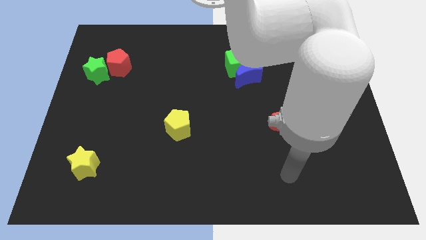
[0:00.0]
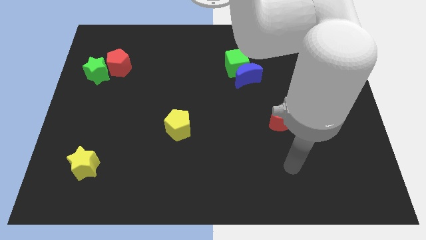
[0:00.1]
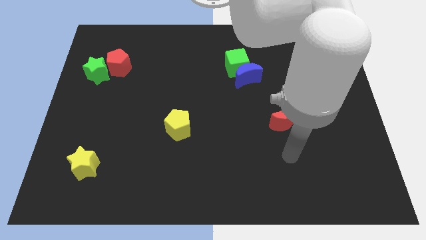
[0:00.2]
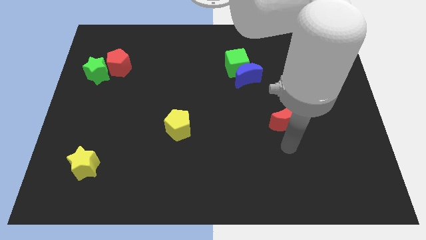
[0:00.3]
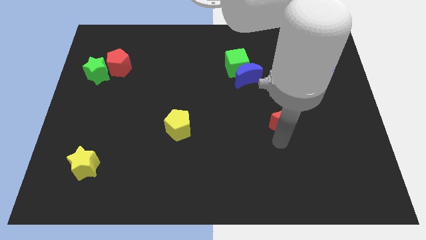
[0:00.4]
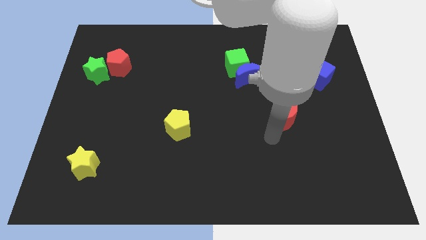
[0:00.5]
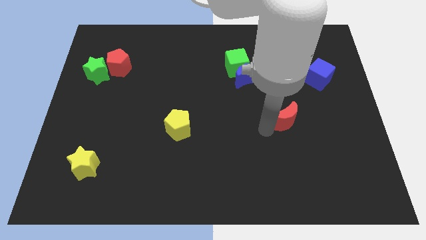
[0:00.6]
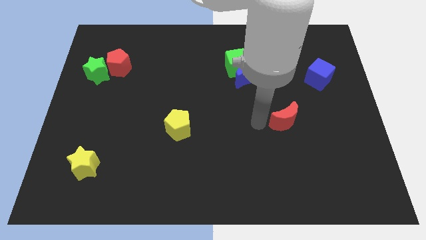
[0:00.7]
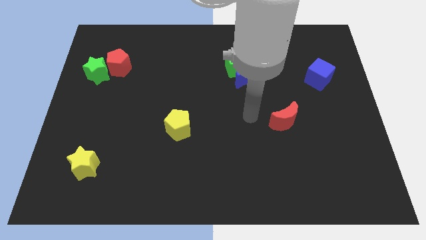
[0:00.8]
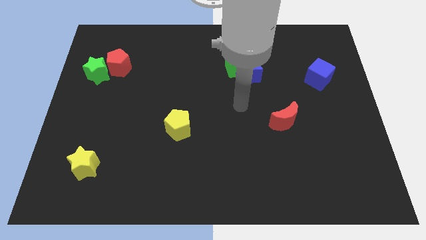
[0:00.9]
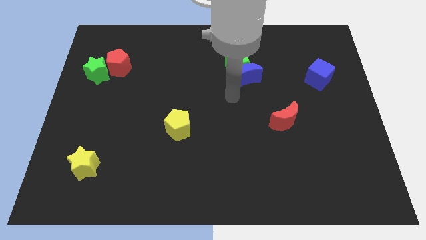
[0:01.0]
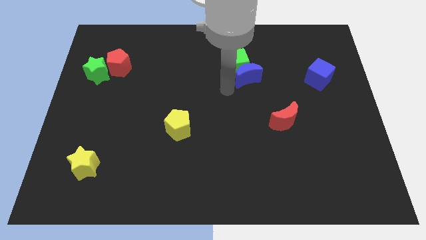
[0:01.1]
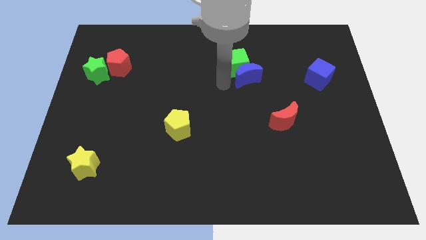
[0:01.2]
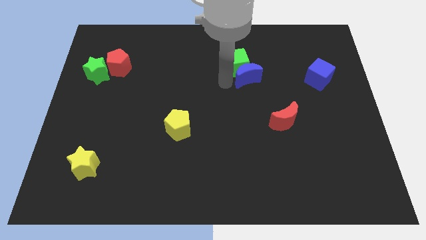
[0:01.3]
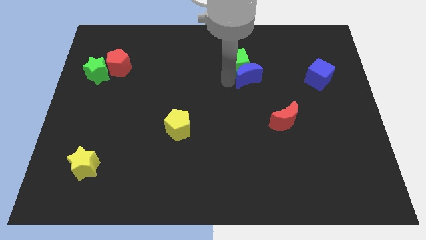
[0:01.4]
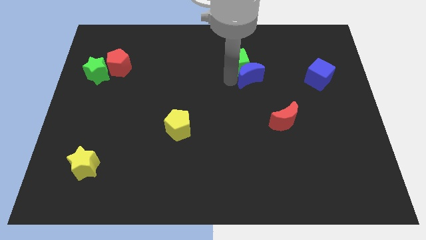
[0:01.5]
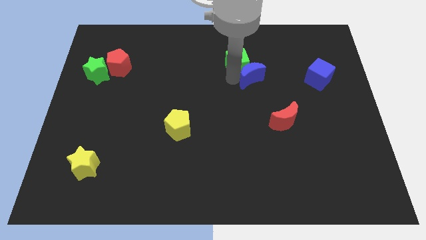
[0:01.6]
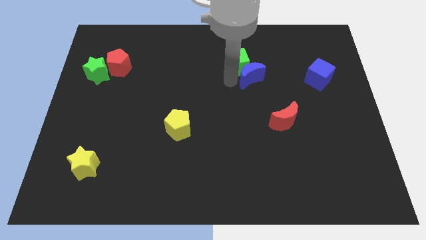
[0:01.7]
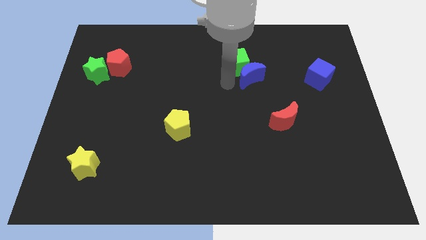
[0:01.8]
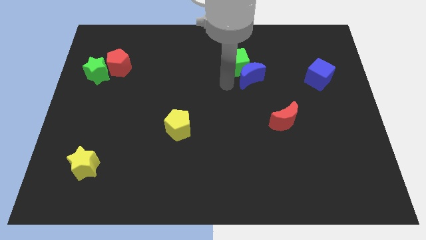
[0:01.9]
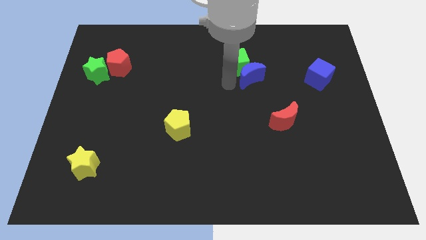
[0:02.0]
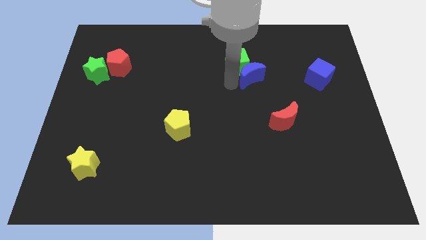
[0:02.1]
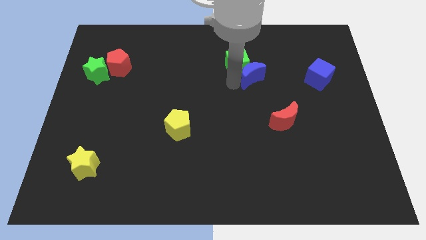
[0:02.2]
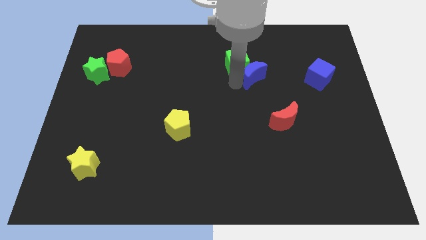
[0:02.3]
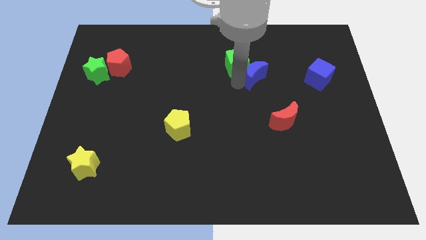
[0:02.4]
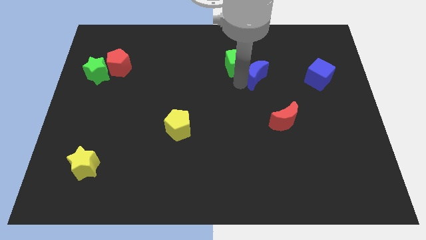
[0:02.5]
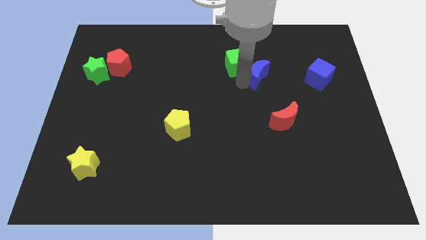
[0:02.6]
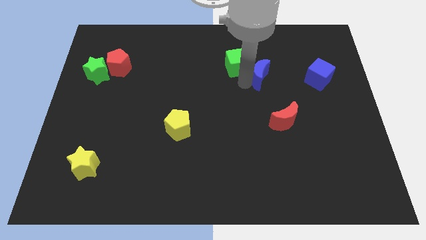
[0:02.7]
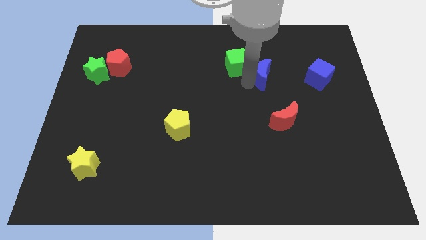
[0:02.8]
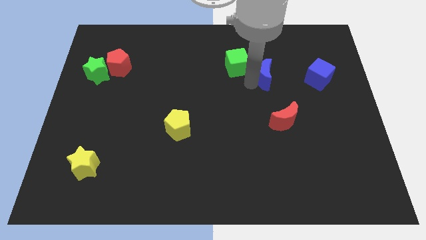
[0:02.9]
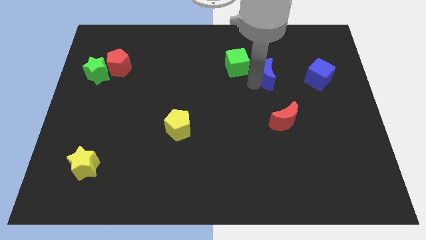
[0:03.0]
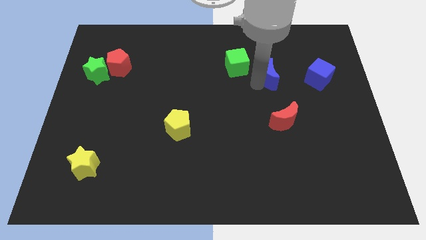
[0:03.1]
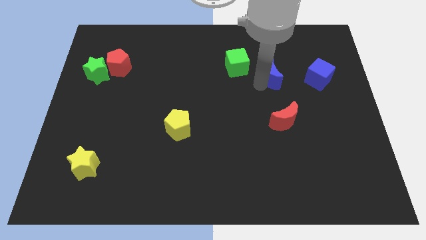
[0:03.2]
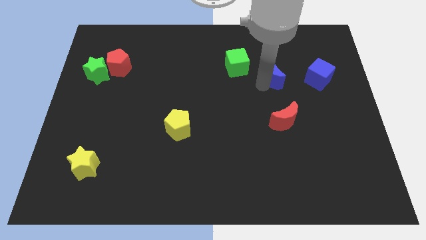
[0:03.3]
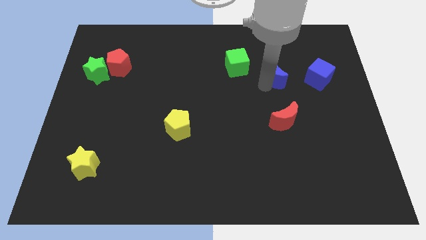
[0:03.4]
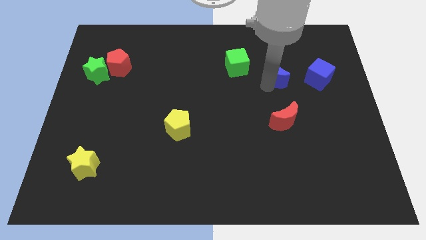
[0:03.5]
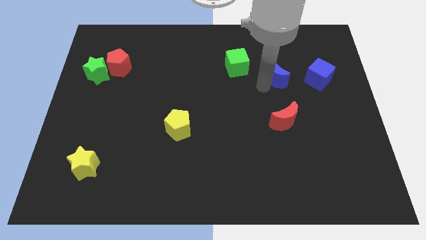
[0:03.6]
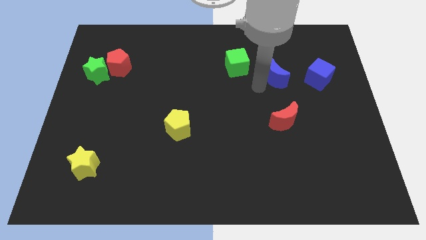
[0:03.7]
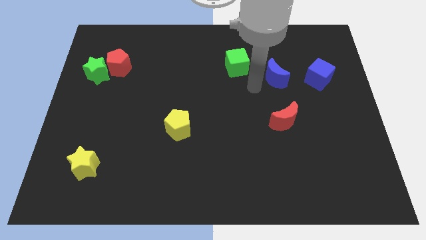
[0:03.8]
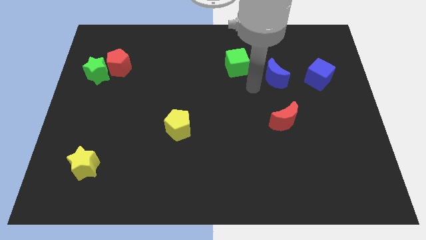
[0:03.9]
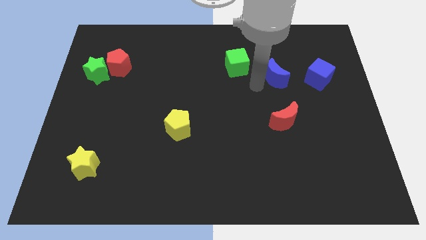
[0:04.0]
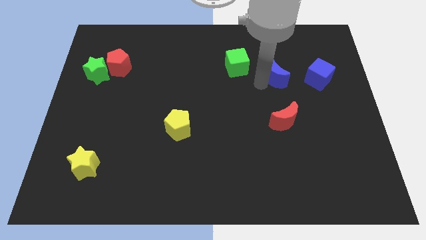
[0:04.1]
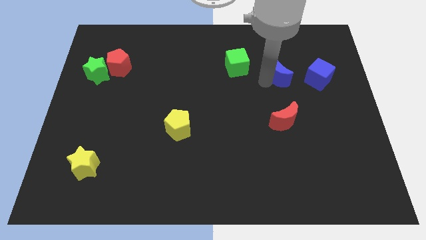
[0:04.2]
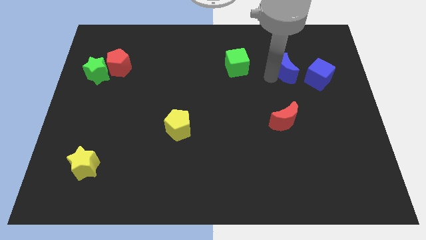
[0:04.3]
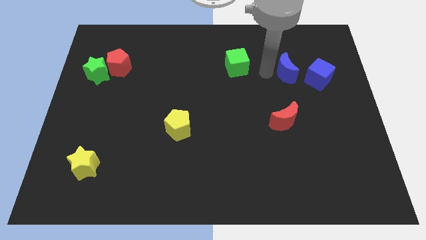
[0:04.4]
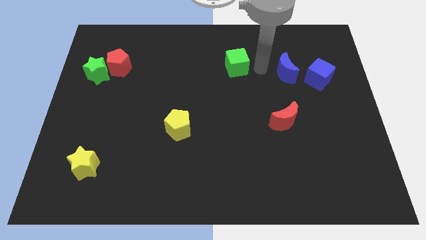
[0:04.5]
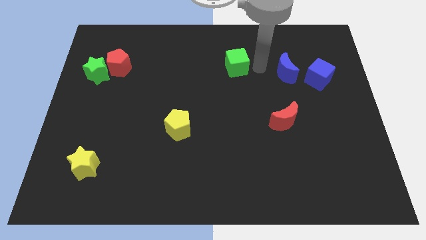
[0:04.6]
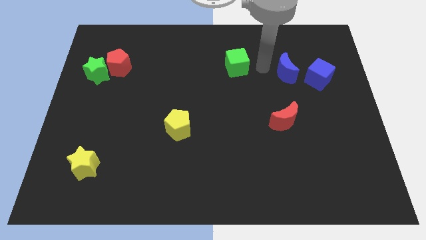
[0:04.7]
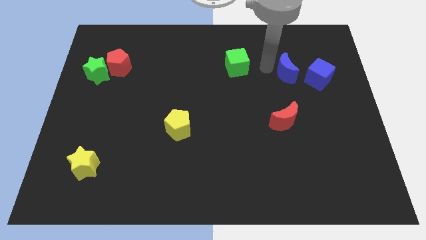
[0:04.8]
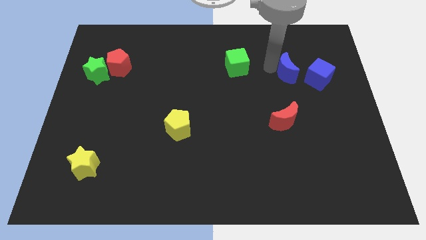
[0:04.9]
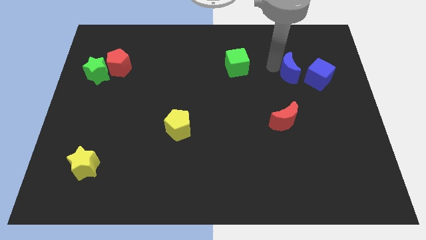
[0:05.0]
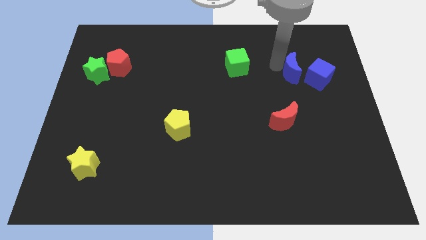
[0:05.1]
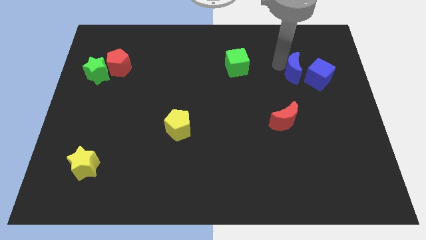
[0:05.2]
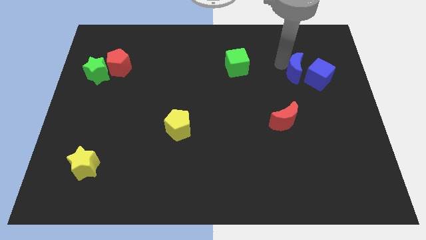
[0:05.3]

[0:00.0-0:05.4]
slide the blue moon to the blue cube

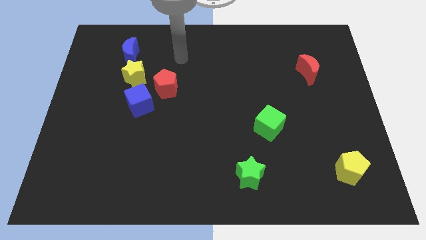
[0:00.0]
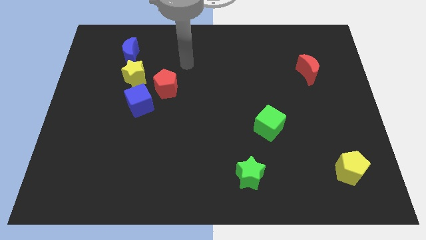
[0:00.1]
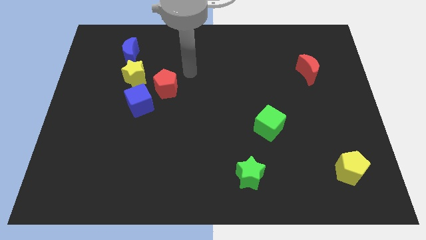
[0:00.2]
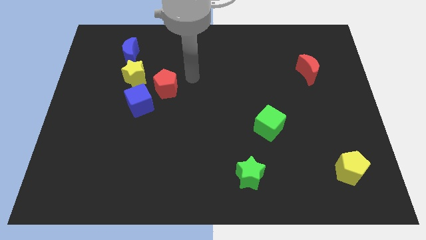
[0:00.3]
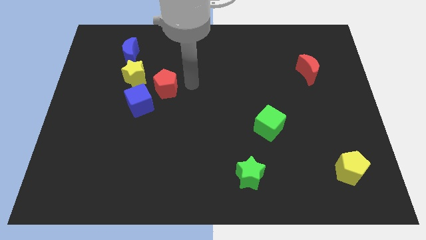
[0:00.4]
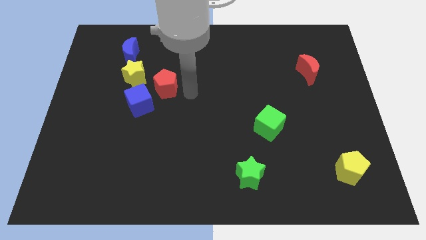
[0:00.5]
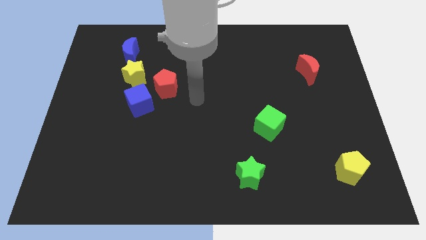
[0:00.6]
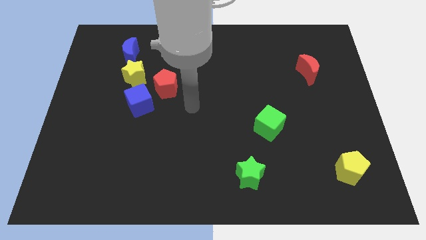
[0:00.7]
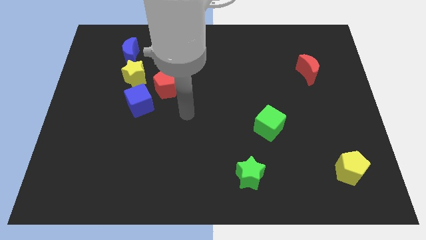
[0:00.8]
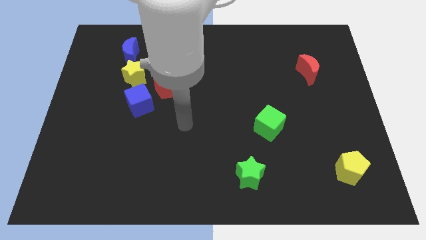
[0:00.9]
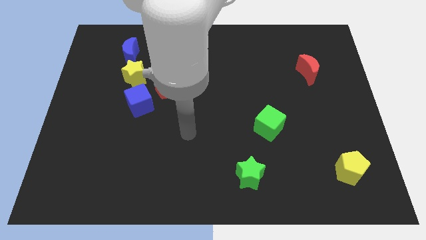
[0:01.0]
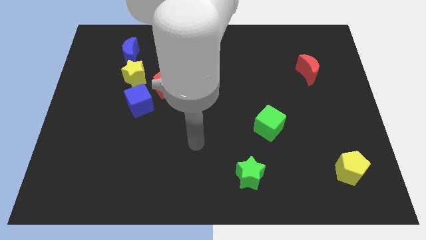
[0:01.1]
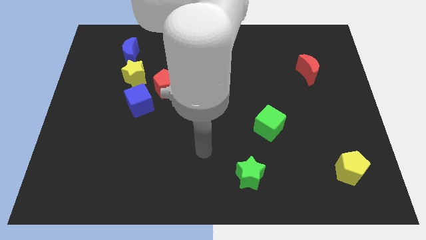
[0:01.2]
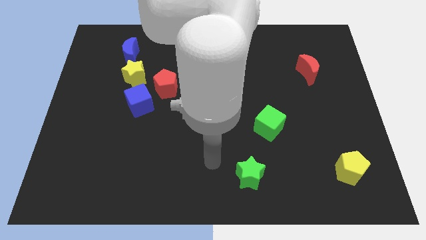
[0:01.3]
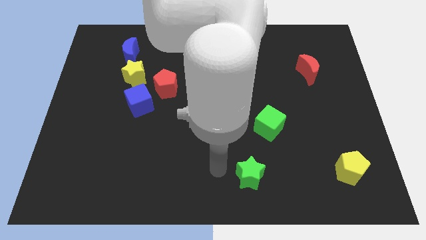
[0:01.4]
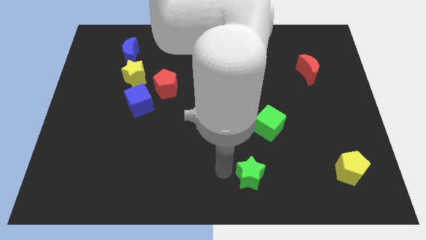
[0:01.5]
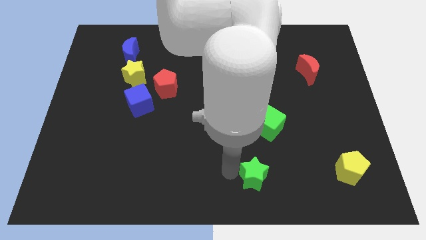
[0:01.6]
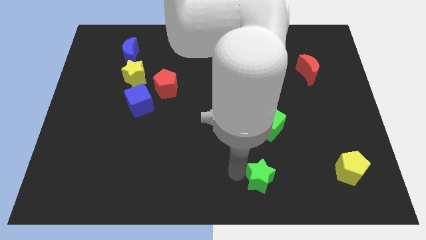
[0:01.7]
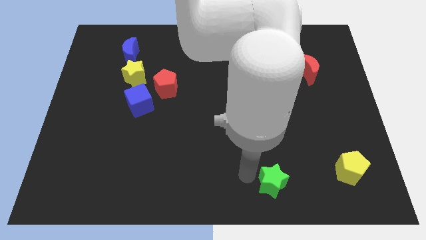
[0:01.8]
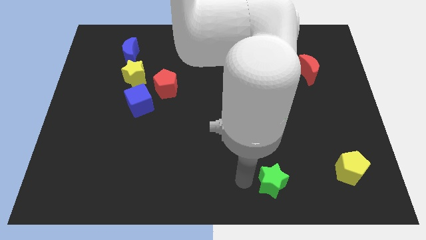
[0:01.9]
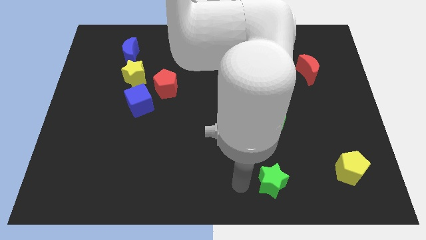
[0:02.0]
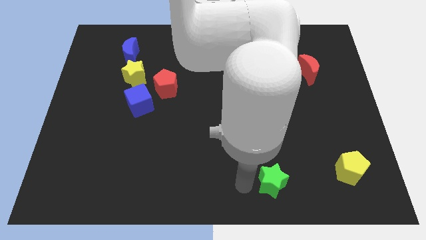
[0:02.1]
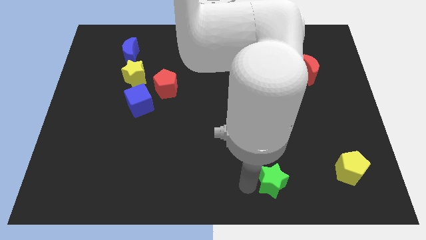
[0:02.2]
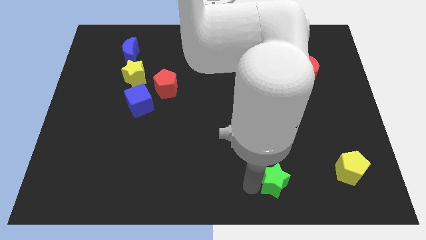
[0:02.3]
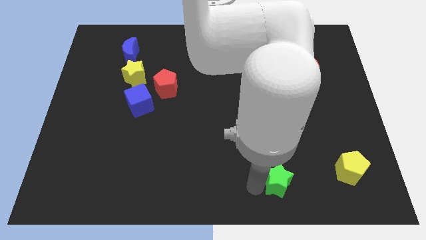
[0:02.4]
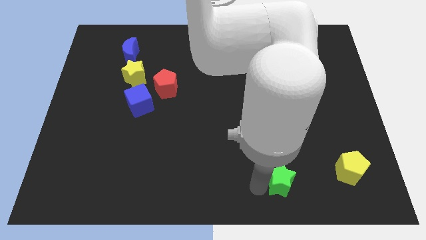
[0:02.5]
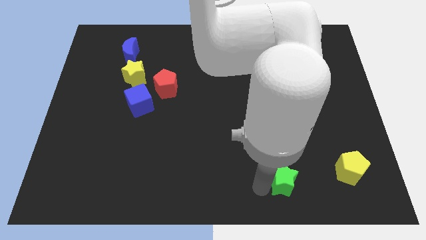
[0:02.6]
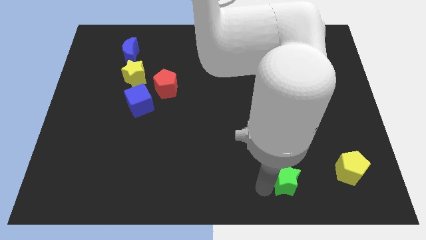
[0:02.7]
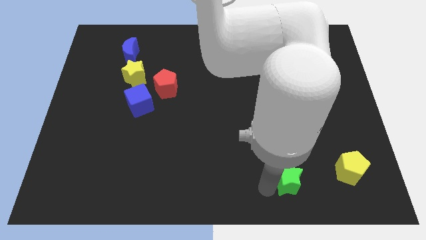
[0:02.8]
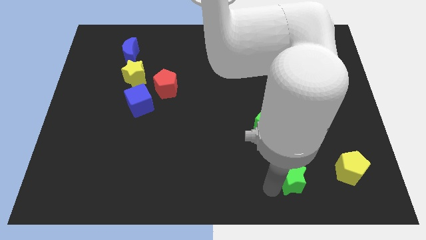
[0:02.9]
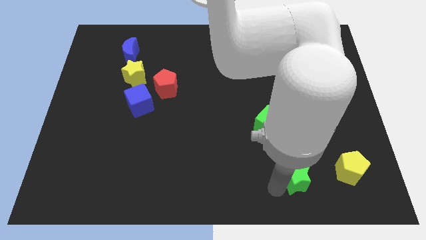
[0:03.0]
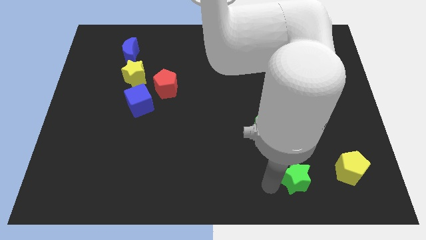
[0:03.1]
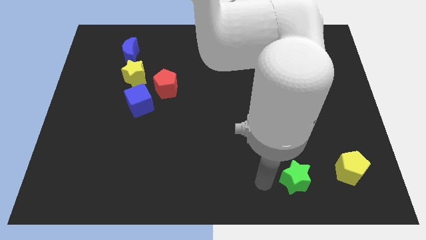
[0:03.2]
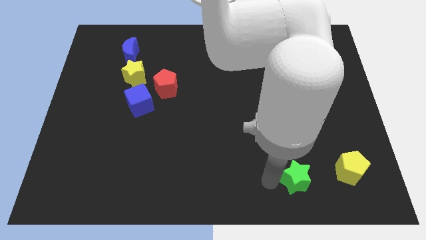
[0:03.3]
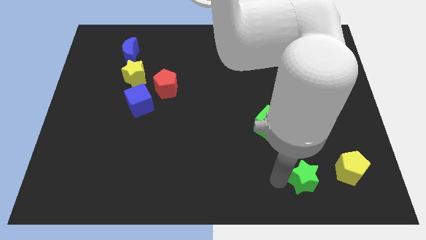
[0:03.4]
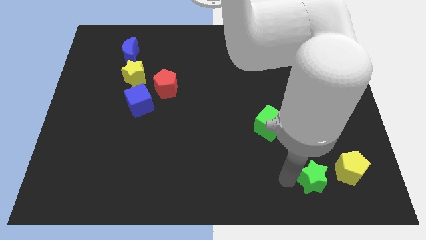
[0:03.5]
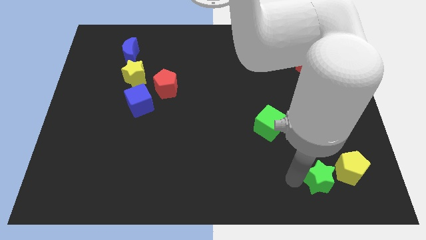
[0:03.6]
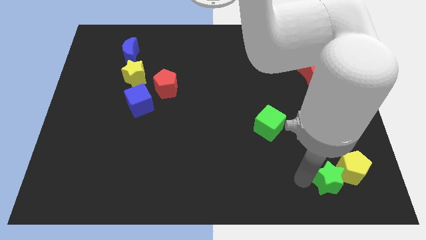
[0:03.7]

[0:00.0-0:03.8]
slide the green star to the yellow pentagon
